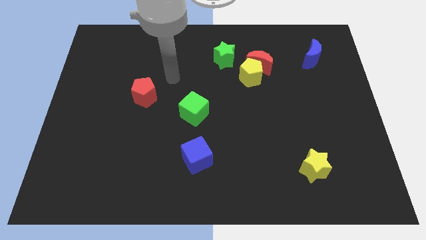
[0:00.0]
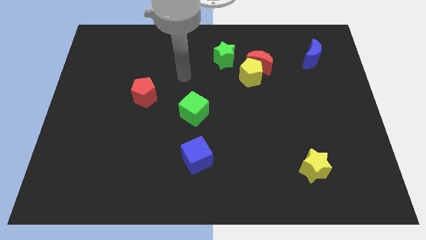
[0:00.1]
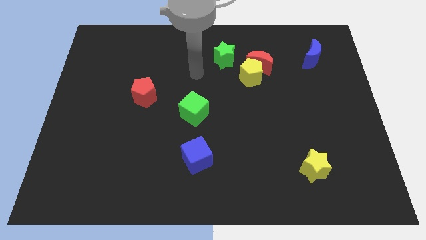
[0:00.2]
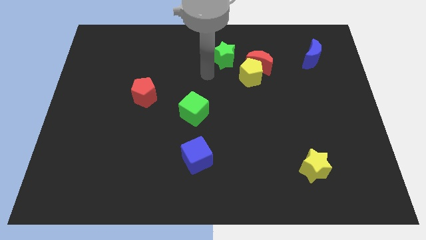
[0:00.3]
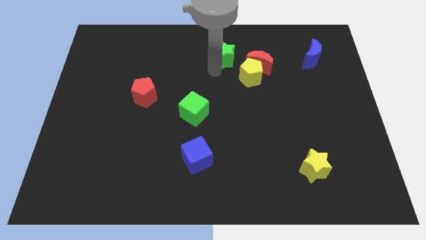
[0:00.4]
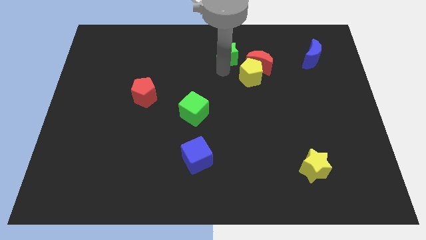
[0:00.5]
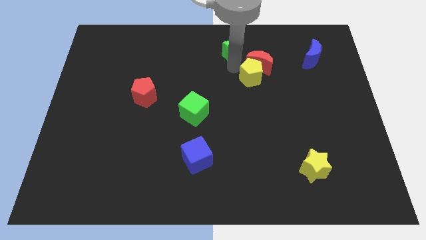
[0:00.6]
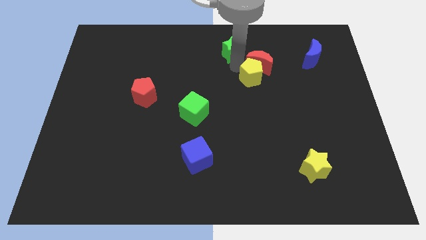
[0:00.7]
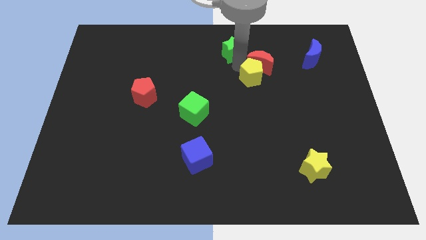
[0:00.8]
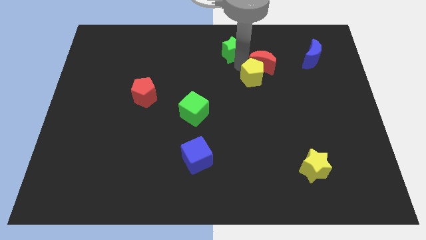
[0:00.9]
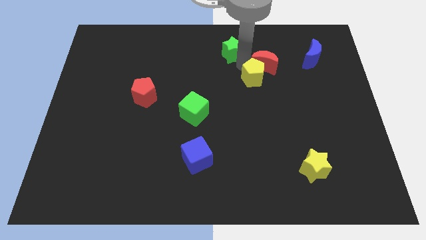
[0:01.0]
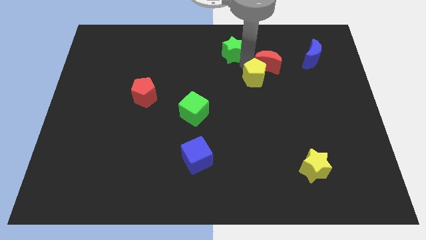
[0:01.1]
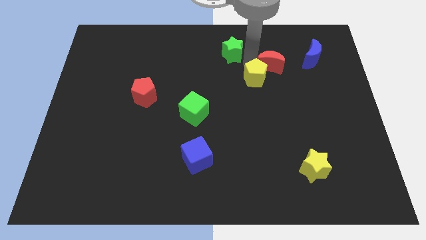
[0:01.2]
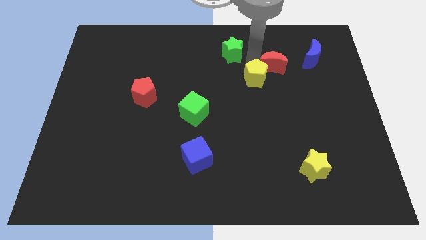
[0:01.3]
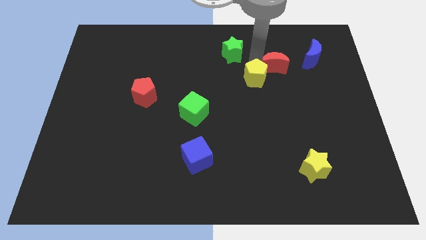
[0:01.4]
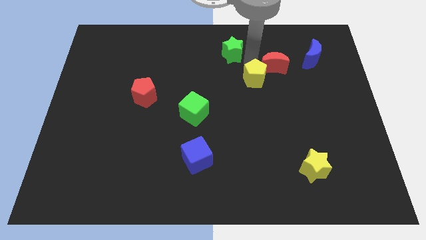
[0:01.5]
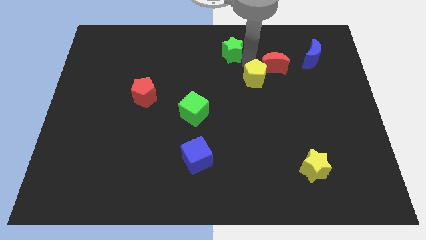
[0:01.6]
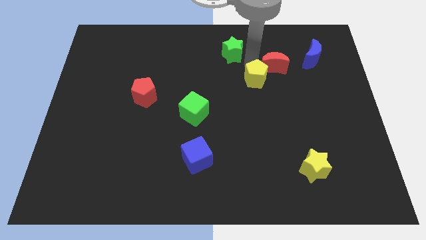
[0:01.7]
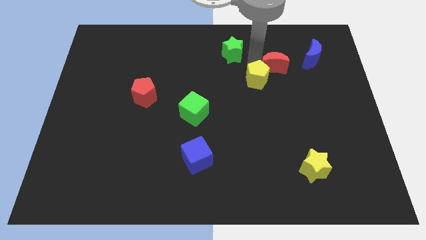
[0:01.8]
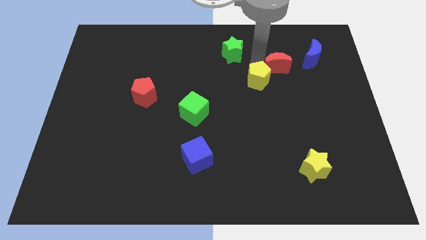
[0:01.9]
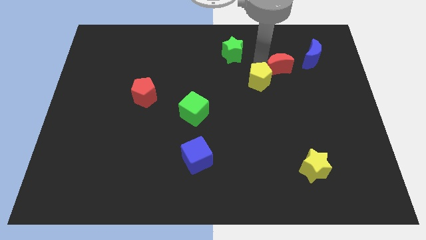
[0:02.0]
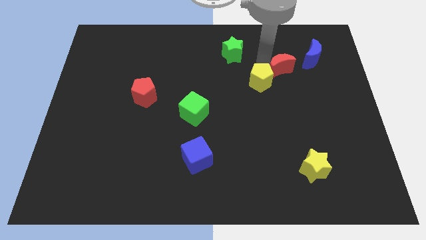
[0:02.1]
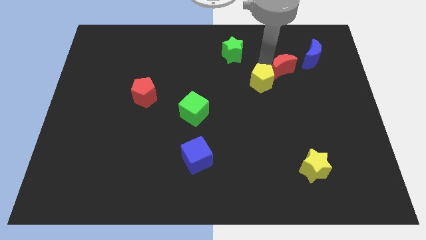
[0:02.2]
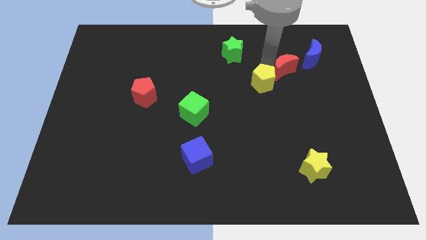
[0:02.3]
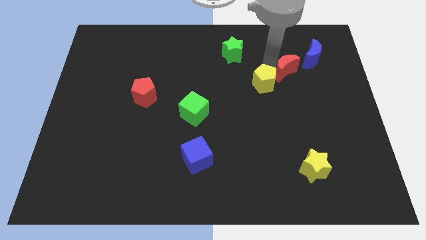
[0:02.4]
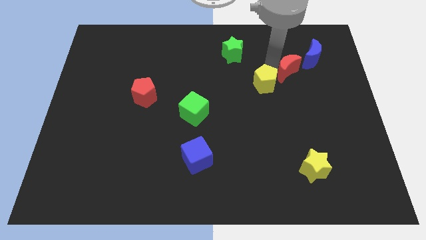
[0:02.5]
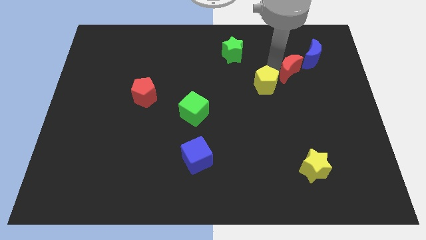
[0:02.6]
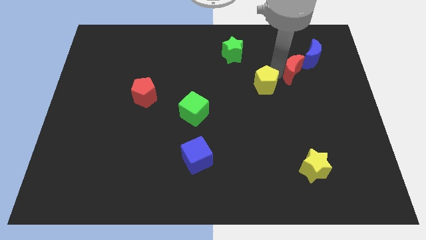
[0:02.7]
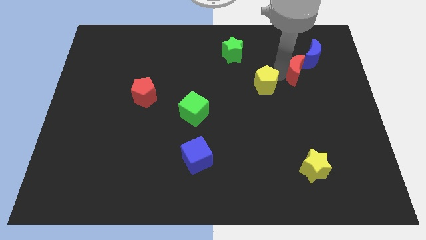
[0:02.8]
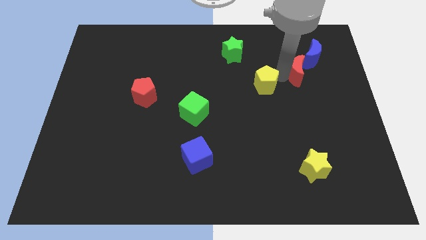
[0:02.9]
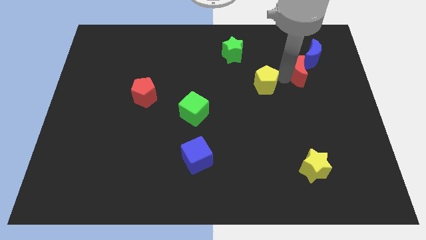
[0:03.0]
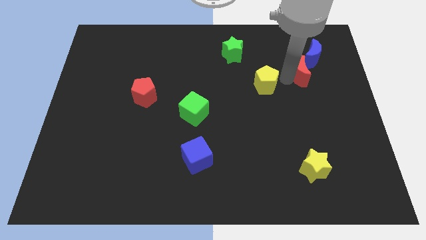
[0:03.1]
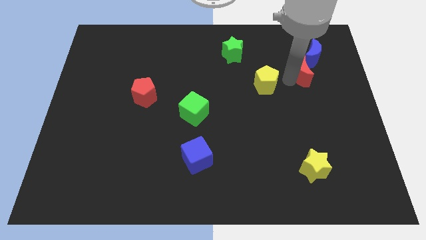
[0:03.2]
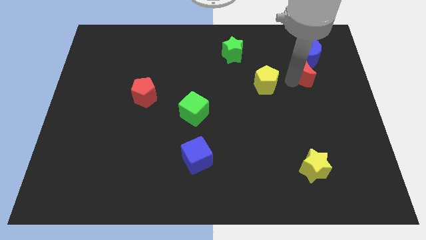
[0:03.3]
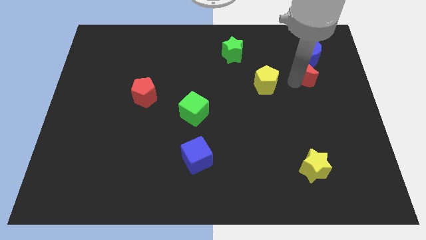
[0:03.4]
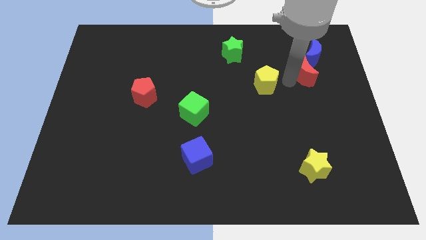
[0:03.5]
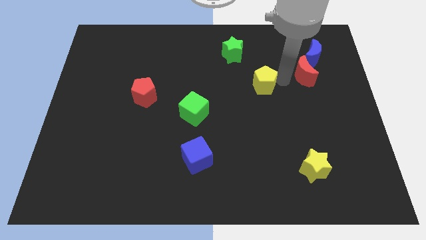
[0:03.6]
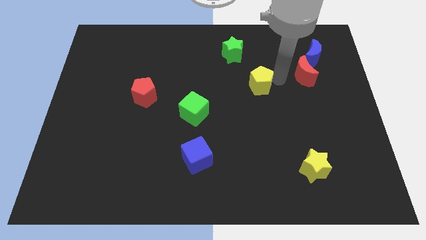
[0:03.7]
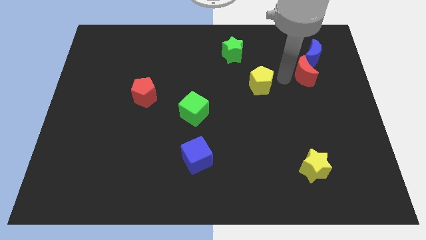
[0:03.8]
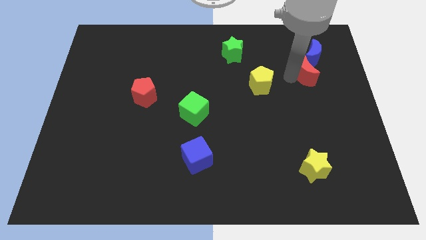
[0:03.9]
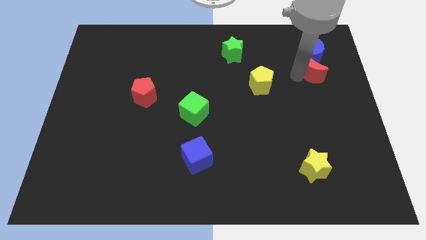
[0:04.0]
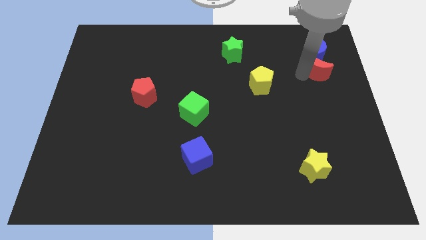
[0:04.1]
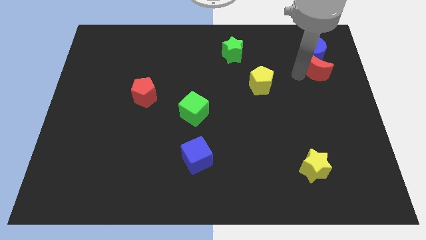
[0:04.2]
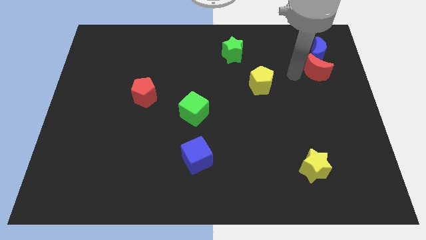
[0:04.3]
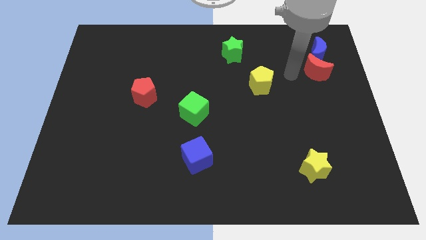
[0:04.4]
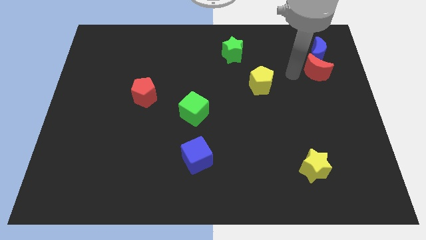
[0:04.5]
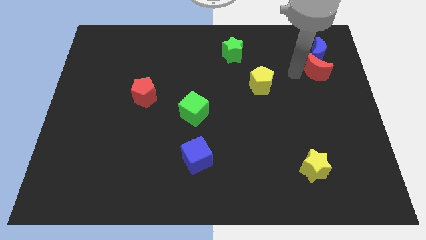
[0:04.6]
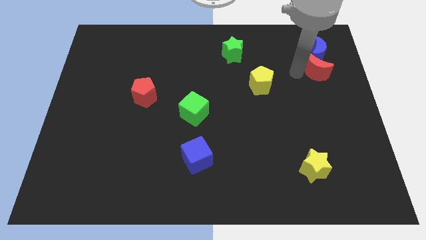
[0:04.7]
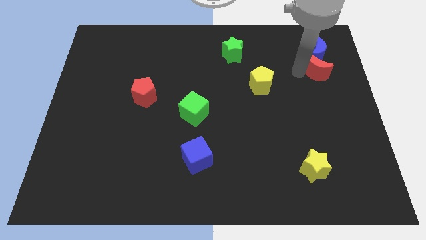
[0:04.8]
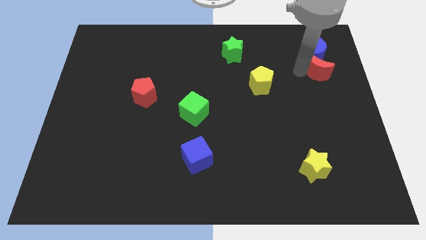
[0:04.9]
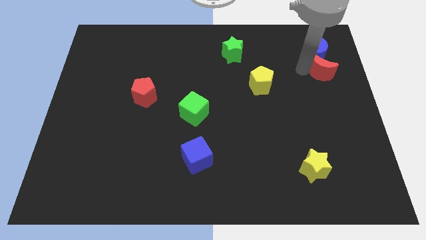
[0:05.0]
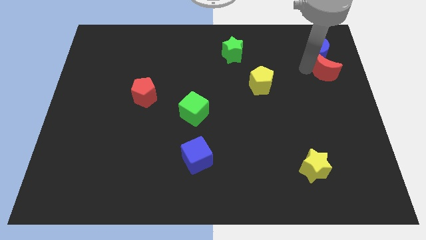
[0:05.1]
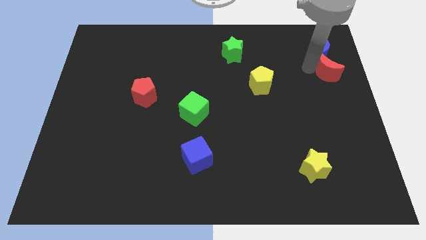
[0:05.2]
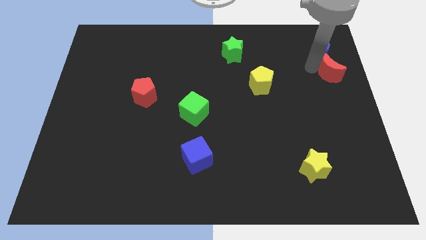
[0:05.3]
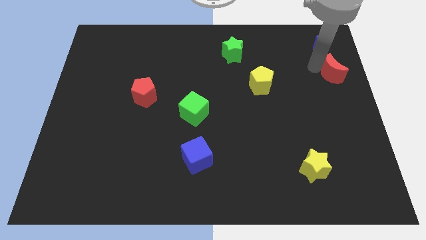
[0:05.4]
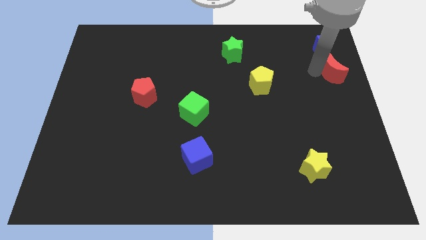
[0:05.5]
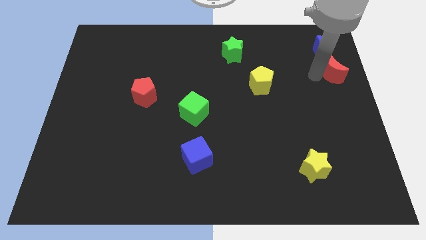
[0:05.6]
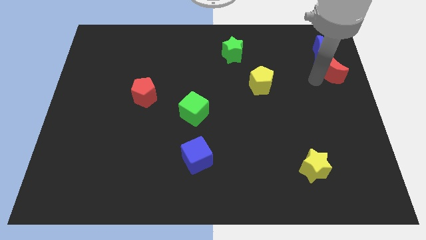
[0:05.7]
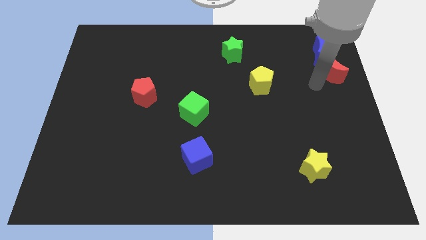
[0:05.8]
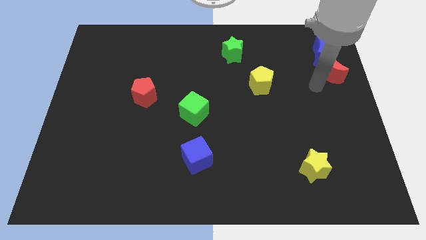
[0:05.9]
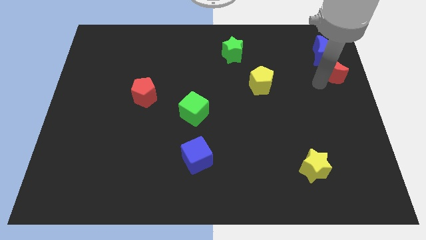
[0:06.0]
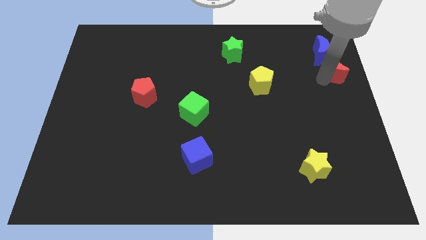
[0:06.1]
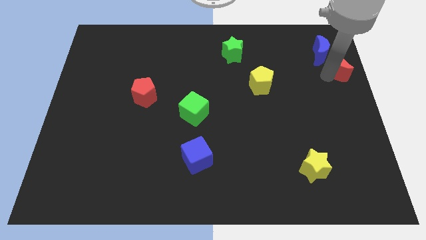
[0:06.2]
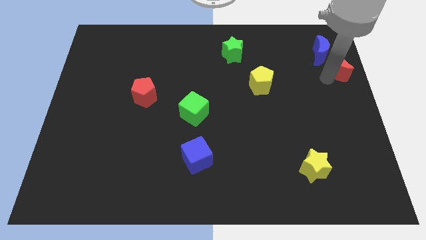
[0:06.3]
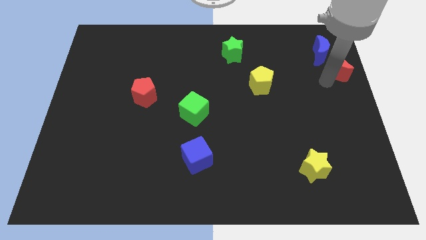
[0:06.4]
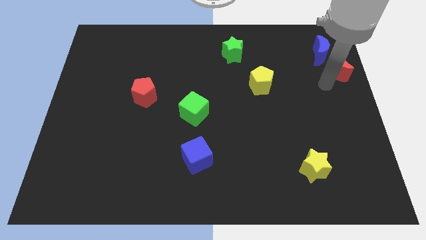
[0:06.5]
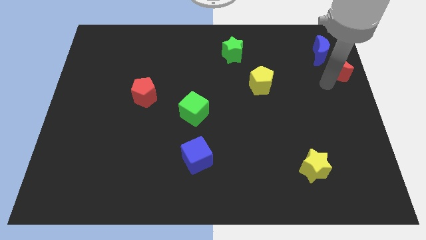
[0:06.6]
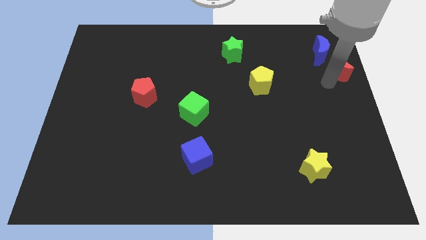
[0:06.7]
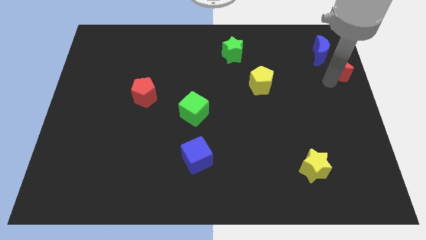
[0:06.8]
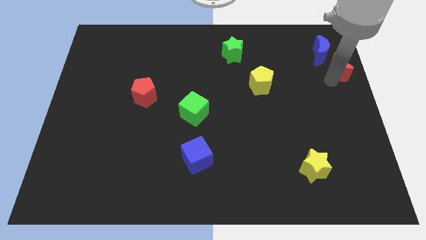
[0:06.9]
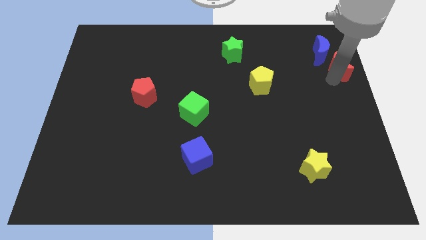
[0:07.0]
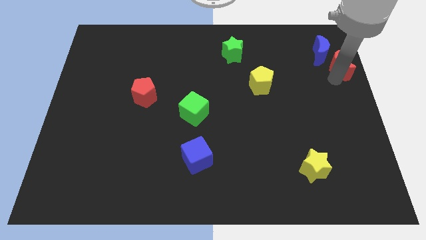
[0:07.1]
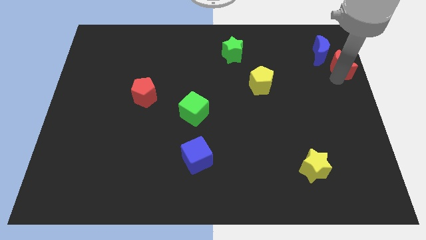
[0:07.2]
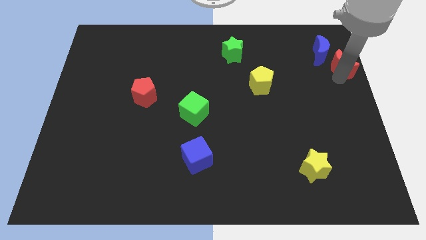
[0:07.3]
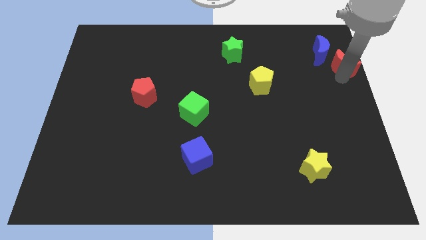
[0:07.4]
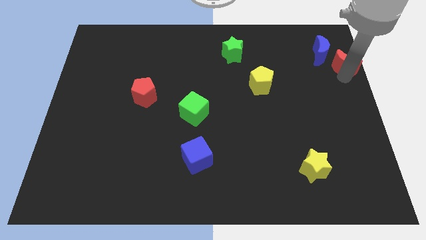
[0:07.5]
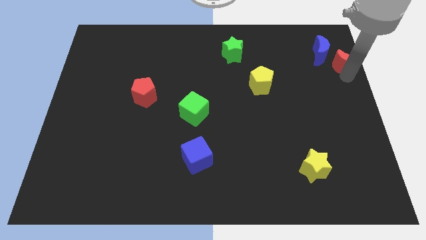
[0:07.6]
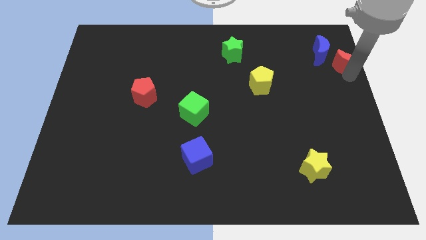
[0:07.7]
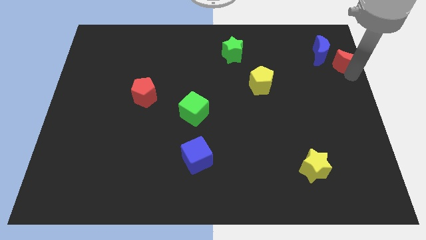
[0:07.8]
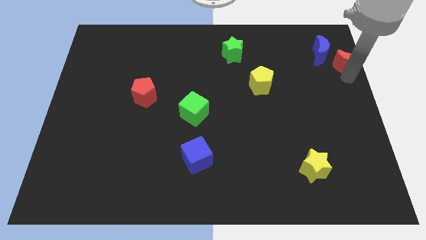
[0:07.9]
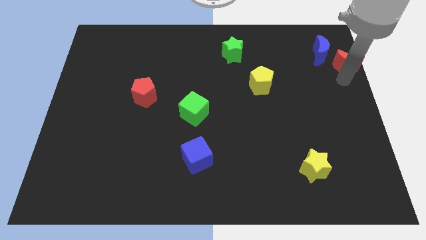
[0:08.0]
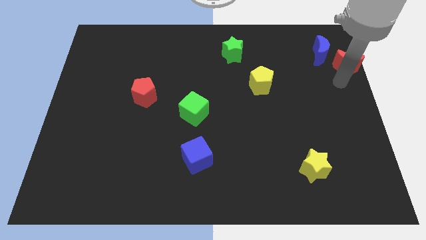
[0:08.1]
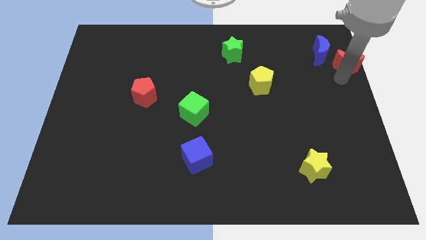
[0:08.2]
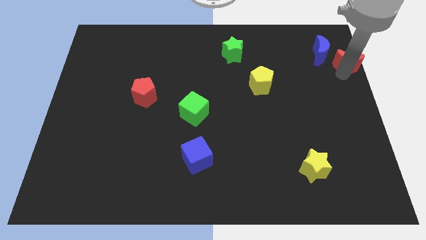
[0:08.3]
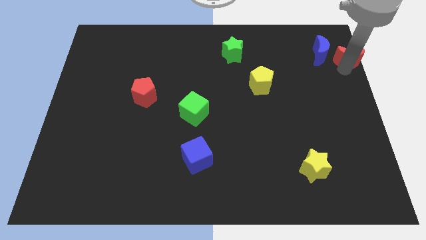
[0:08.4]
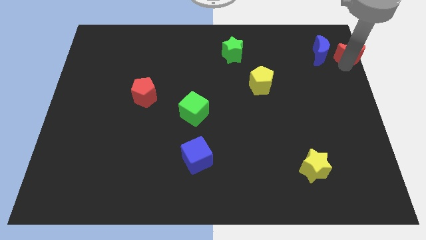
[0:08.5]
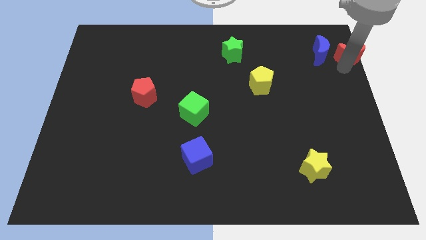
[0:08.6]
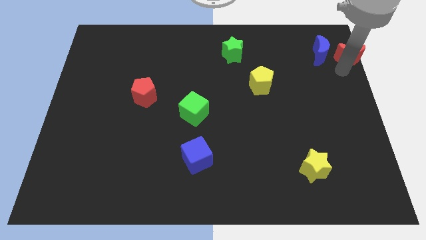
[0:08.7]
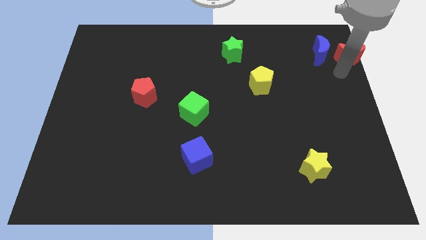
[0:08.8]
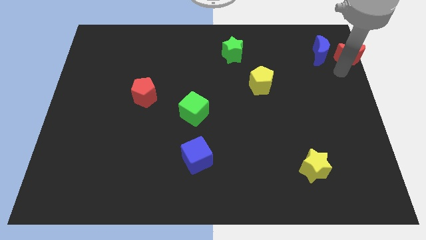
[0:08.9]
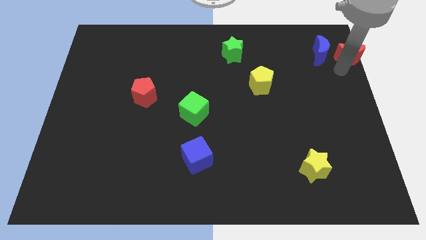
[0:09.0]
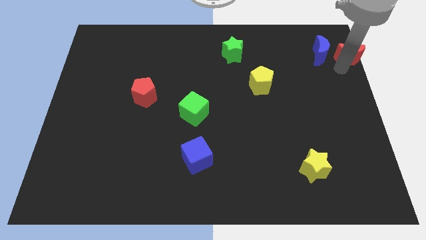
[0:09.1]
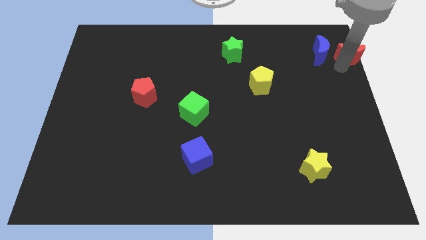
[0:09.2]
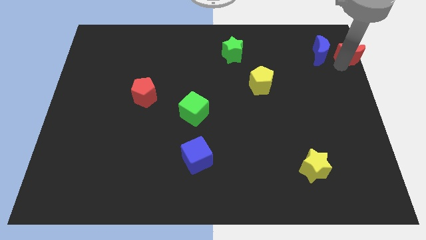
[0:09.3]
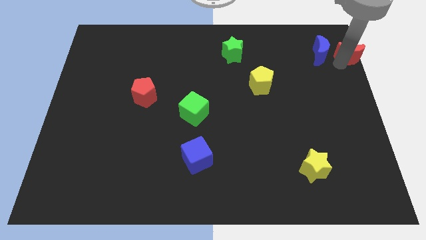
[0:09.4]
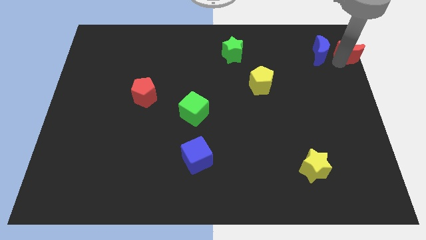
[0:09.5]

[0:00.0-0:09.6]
slide the red moon to the top right corner
